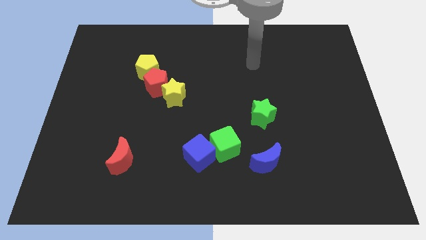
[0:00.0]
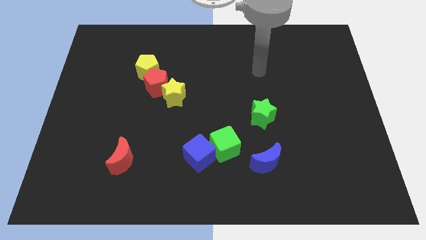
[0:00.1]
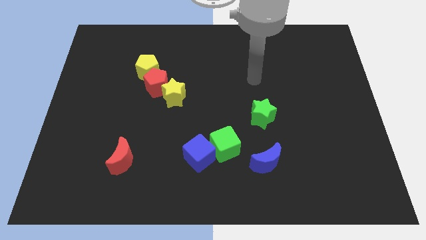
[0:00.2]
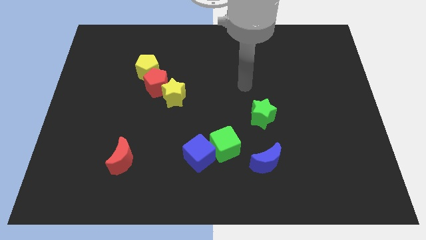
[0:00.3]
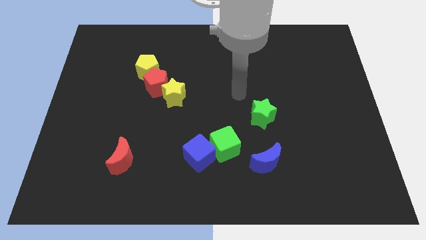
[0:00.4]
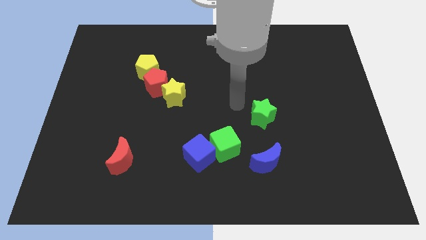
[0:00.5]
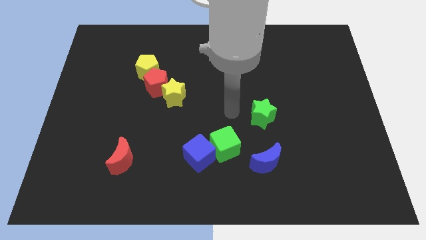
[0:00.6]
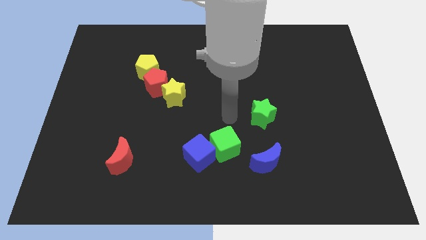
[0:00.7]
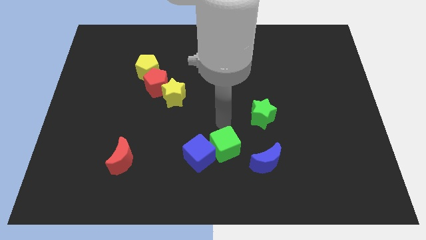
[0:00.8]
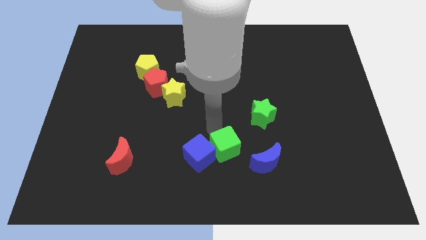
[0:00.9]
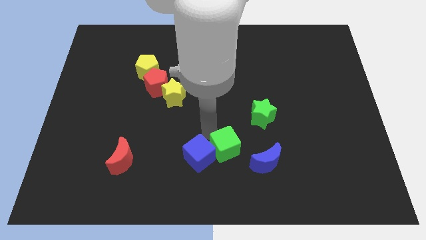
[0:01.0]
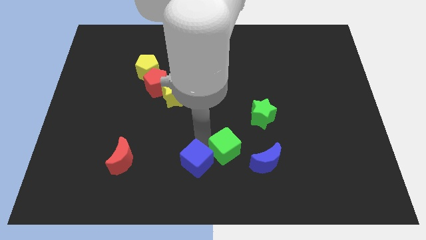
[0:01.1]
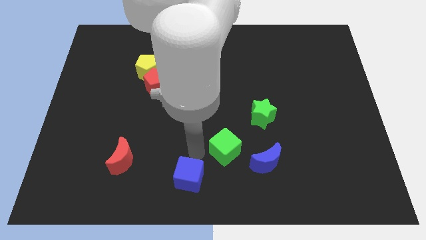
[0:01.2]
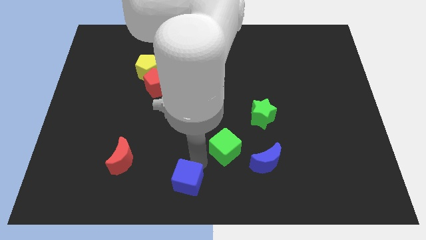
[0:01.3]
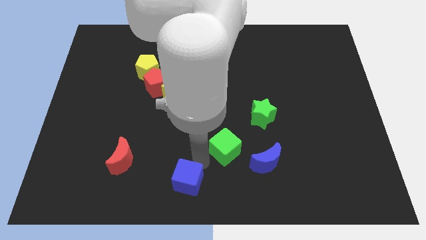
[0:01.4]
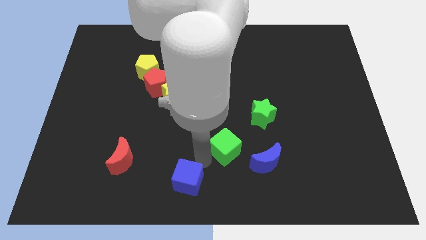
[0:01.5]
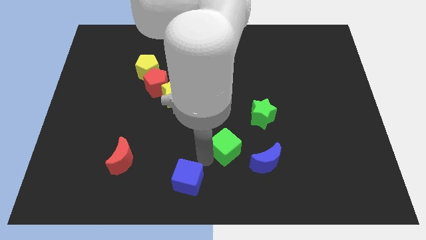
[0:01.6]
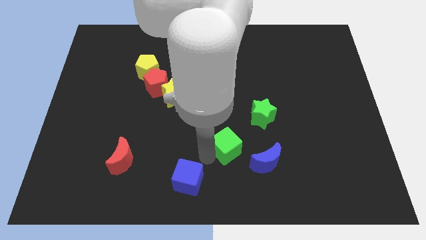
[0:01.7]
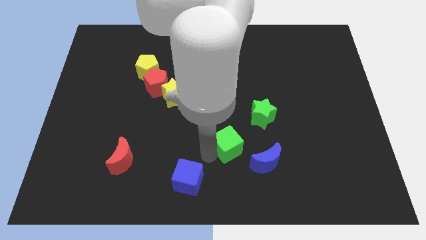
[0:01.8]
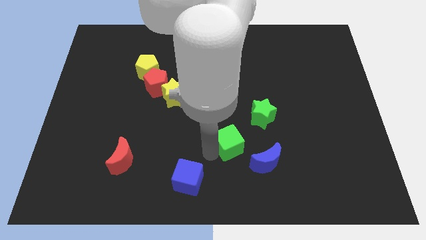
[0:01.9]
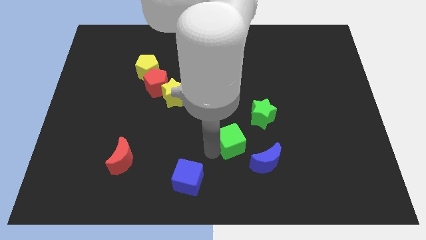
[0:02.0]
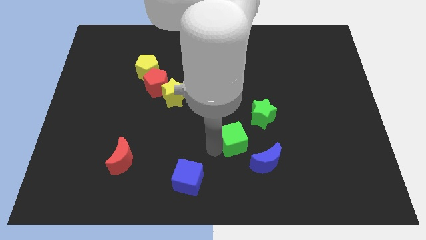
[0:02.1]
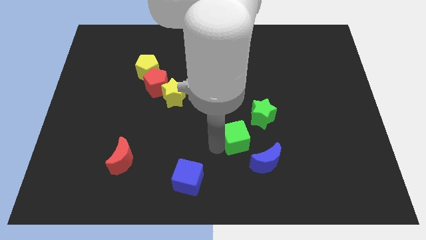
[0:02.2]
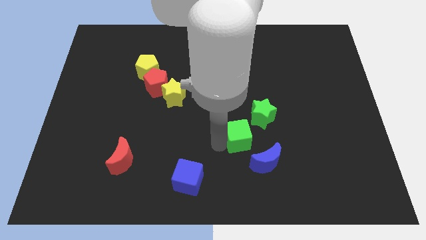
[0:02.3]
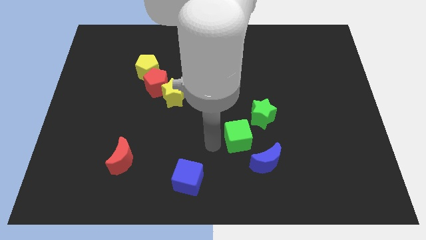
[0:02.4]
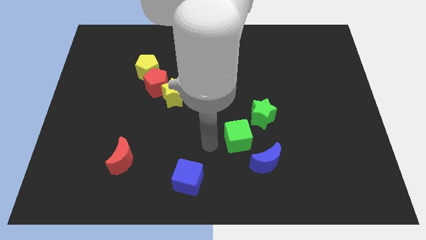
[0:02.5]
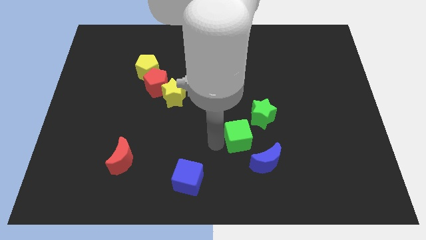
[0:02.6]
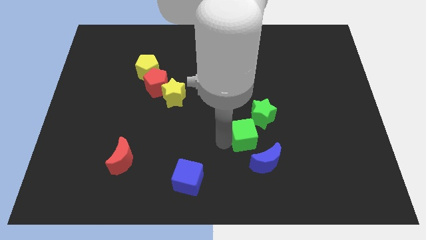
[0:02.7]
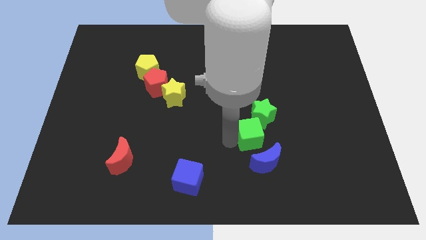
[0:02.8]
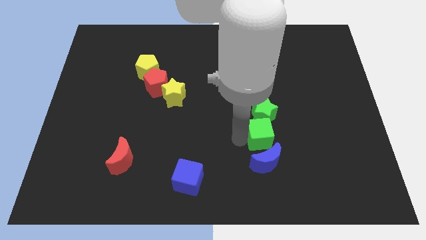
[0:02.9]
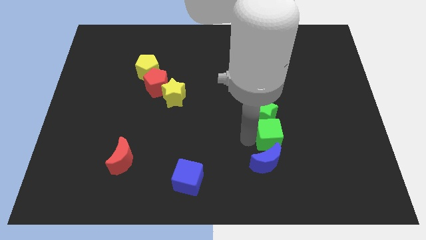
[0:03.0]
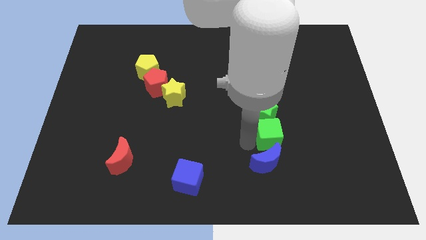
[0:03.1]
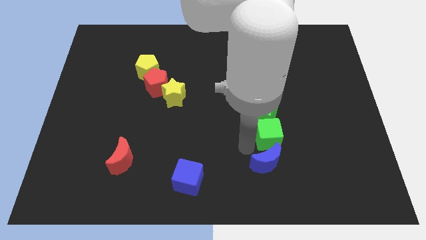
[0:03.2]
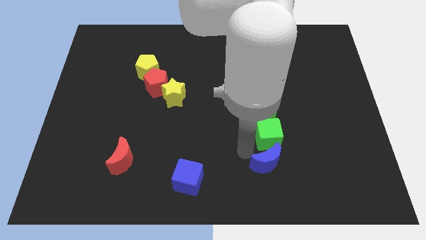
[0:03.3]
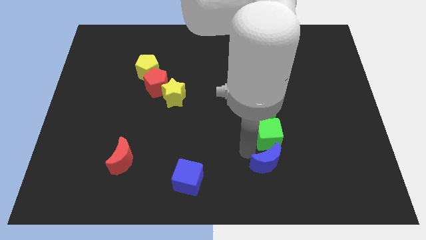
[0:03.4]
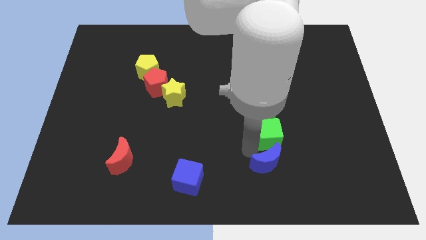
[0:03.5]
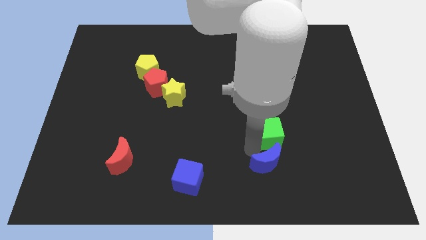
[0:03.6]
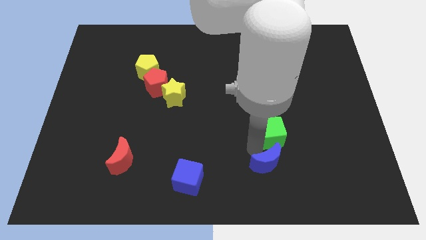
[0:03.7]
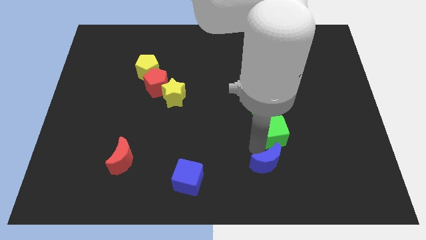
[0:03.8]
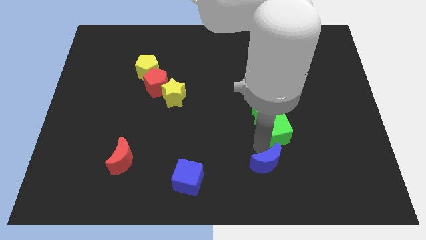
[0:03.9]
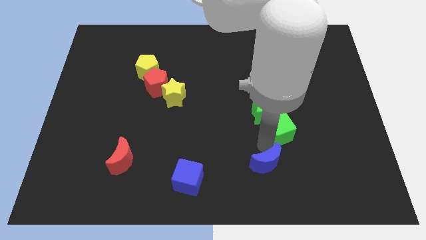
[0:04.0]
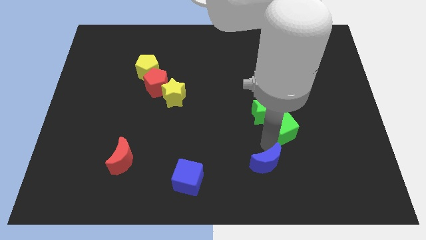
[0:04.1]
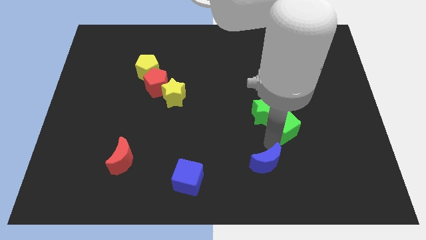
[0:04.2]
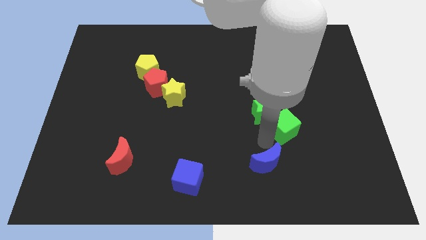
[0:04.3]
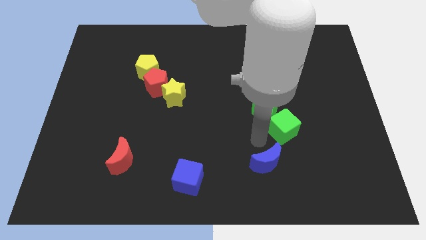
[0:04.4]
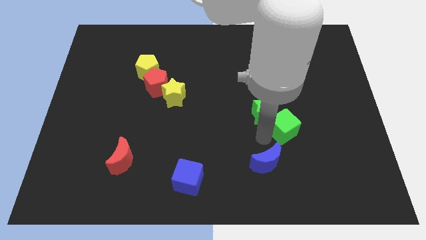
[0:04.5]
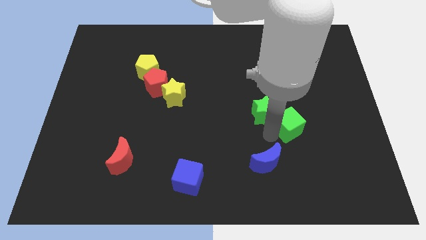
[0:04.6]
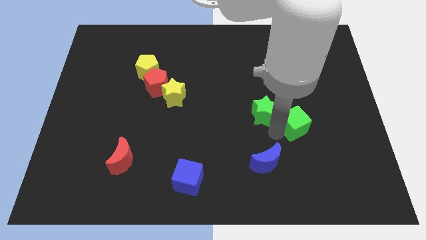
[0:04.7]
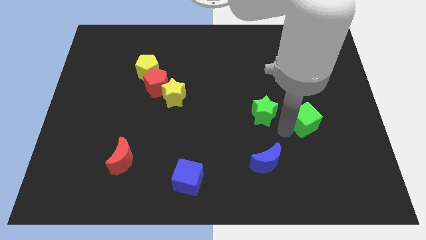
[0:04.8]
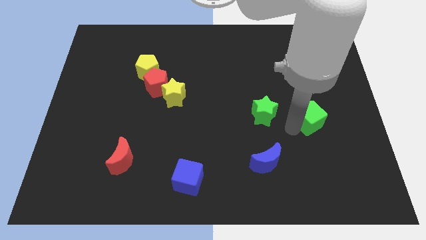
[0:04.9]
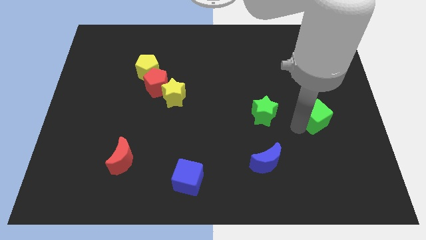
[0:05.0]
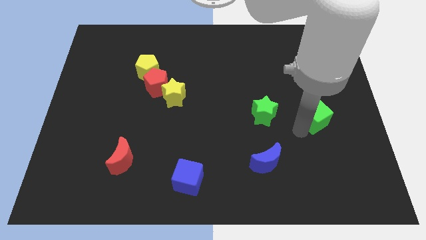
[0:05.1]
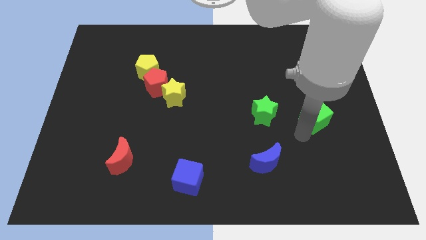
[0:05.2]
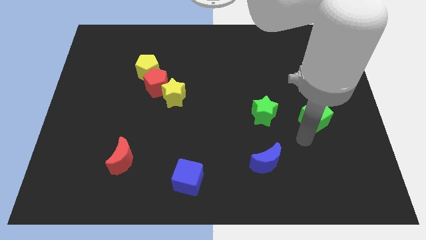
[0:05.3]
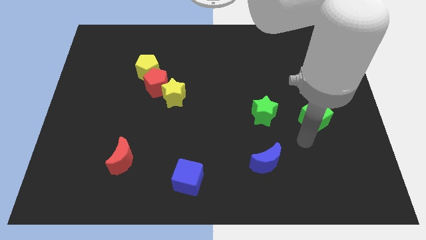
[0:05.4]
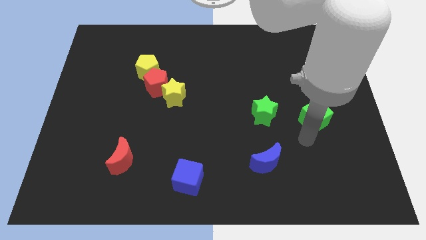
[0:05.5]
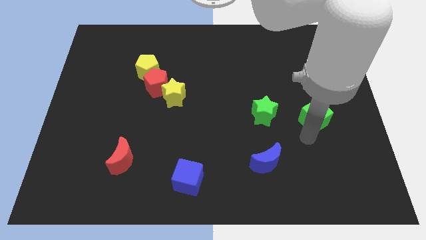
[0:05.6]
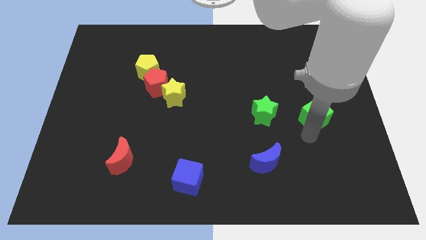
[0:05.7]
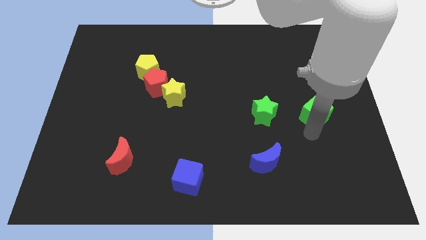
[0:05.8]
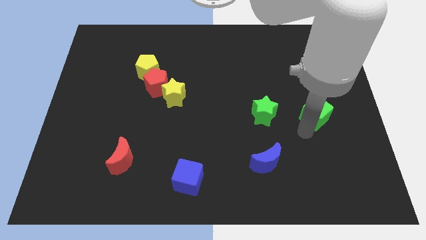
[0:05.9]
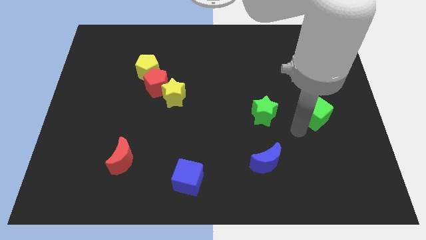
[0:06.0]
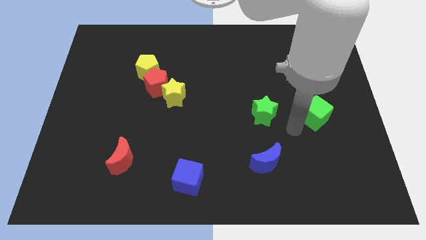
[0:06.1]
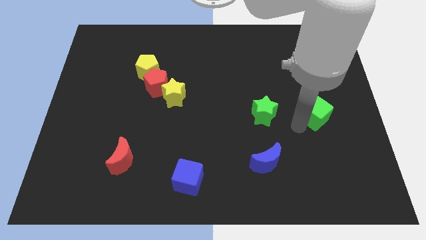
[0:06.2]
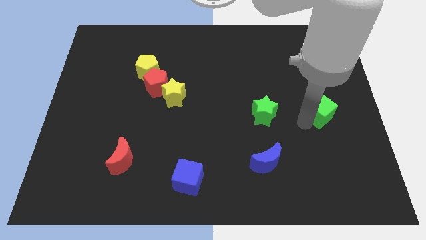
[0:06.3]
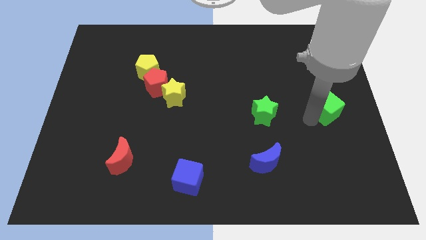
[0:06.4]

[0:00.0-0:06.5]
push the green cube to the right side of the board
